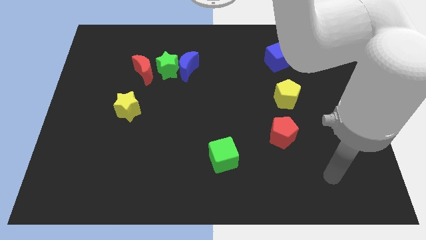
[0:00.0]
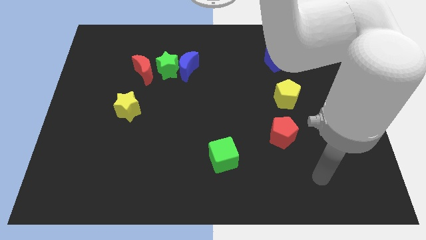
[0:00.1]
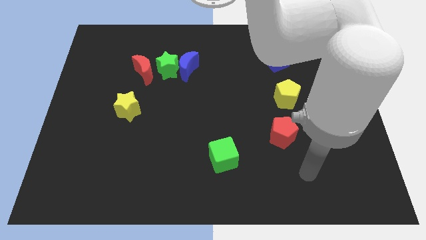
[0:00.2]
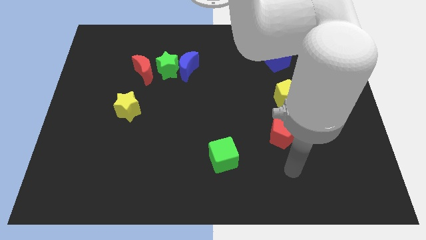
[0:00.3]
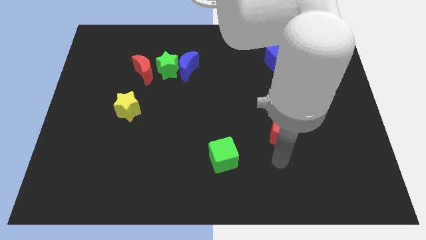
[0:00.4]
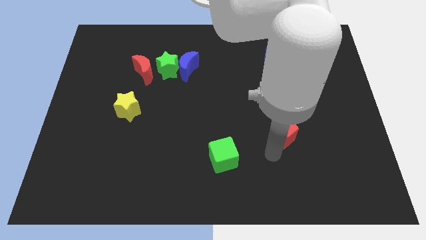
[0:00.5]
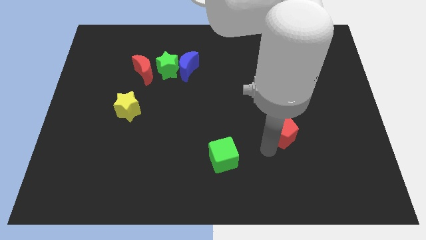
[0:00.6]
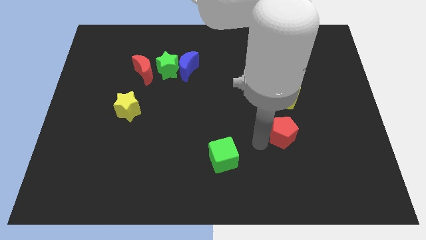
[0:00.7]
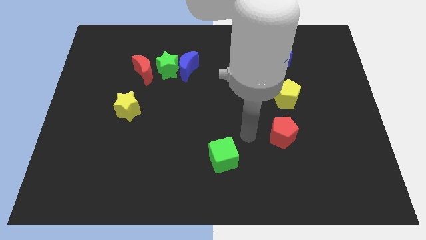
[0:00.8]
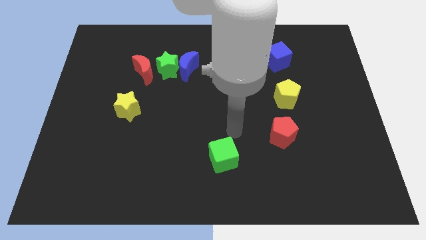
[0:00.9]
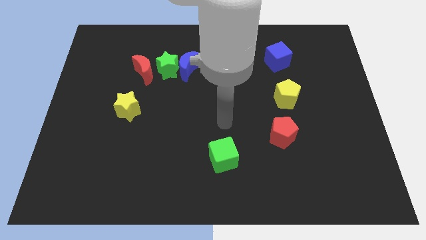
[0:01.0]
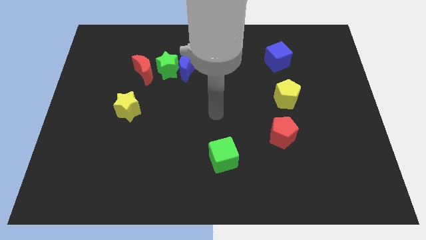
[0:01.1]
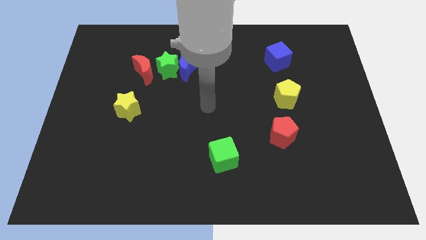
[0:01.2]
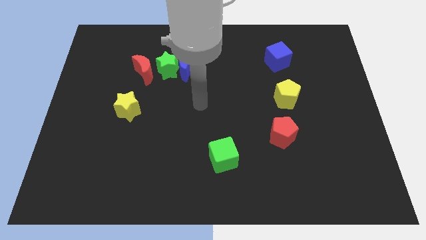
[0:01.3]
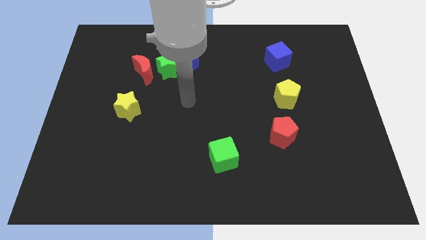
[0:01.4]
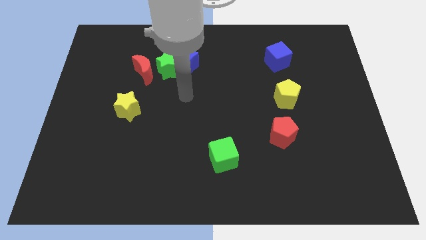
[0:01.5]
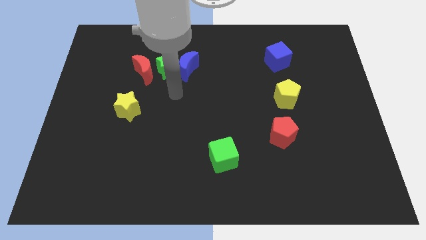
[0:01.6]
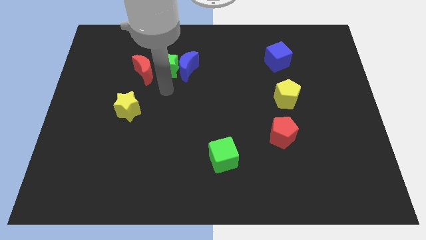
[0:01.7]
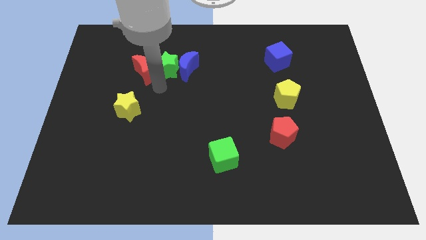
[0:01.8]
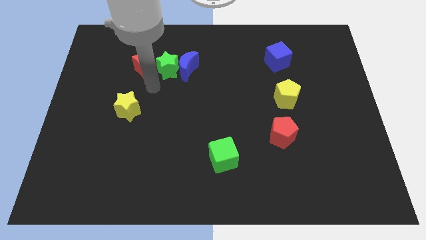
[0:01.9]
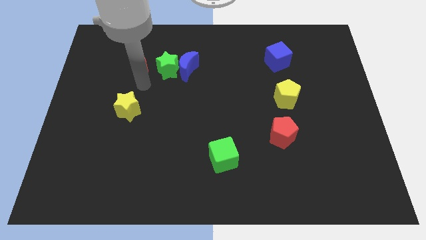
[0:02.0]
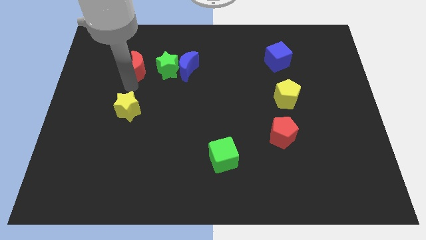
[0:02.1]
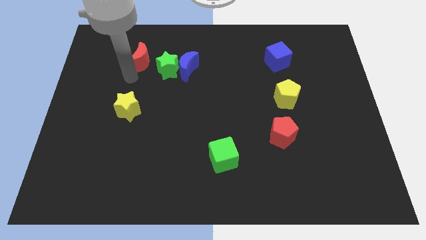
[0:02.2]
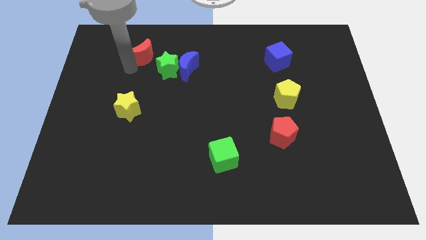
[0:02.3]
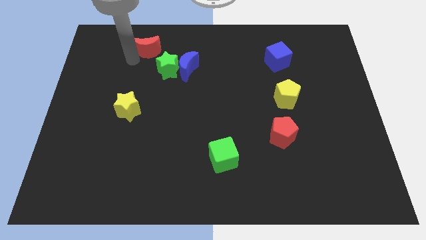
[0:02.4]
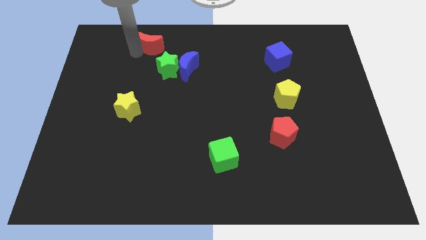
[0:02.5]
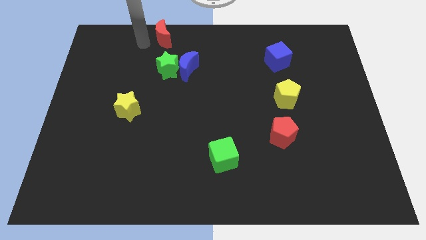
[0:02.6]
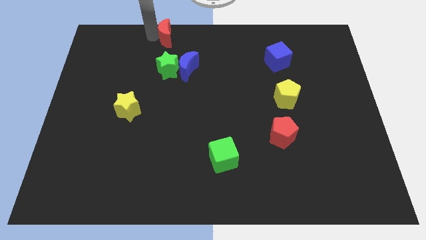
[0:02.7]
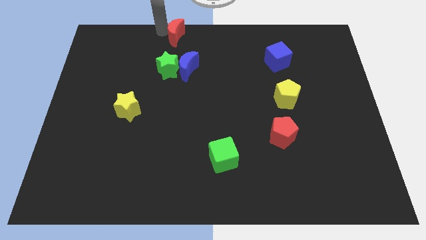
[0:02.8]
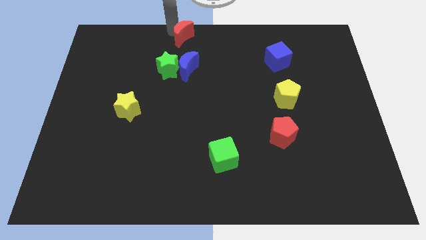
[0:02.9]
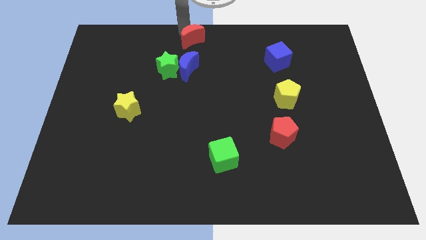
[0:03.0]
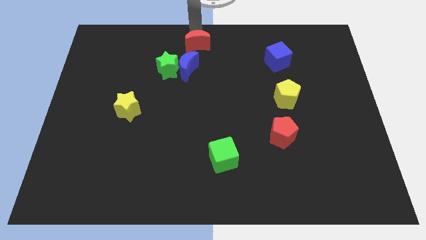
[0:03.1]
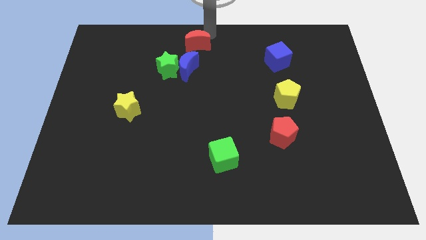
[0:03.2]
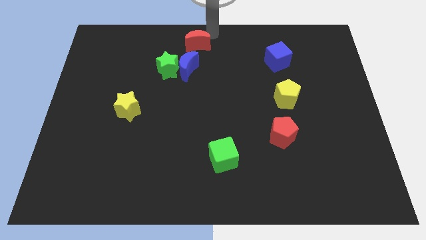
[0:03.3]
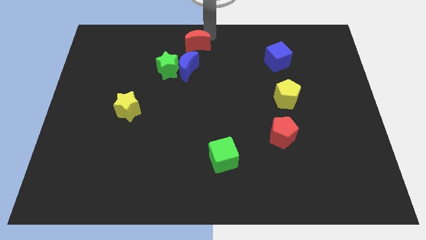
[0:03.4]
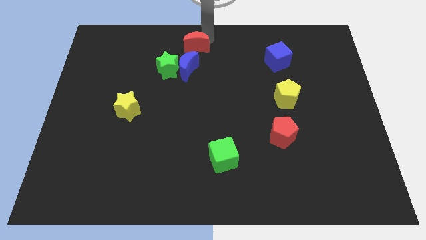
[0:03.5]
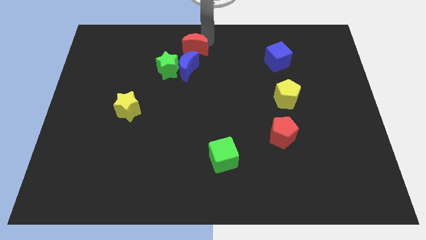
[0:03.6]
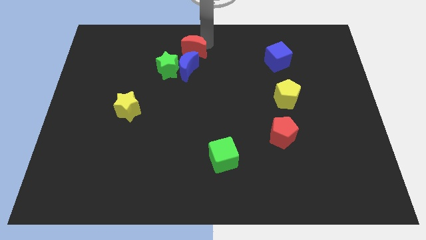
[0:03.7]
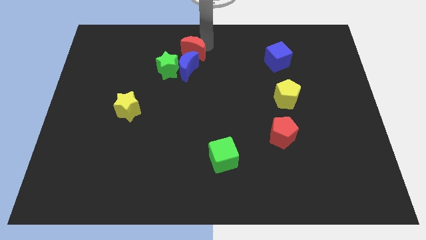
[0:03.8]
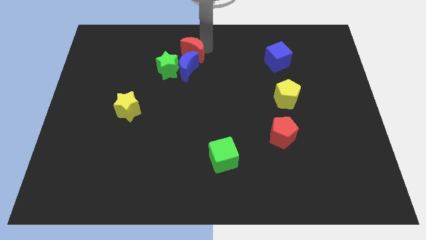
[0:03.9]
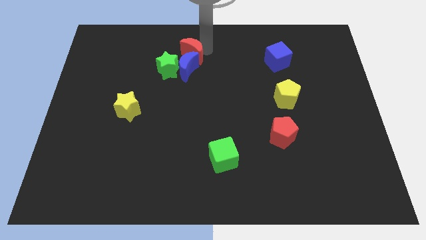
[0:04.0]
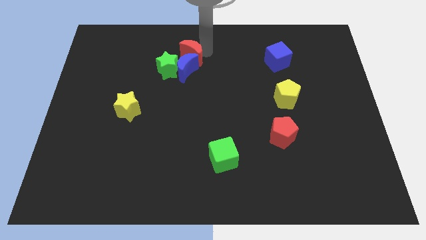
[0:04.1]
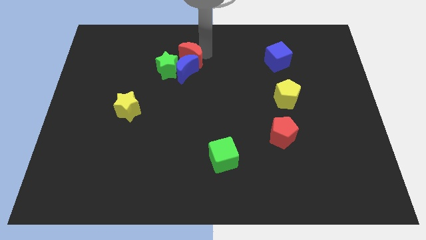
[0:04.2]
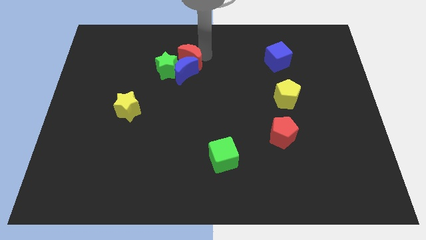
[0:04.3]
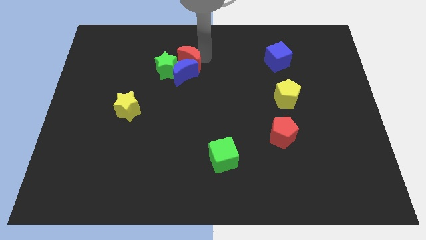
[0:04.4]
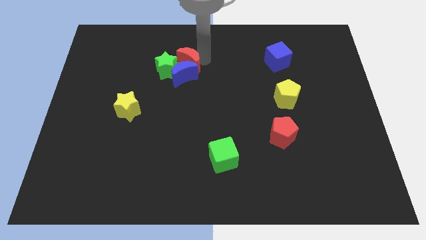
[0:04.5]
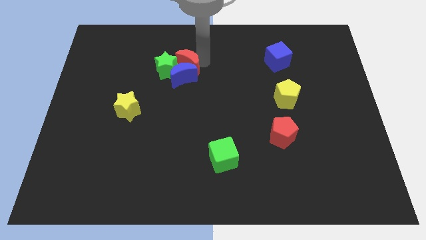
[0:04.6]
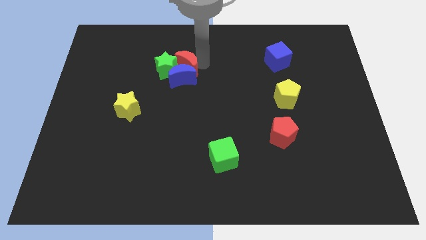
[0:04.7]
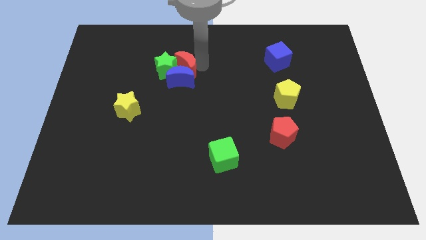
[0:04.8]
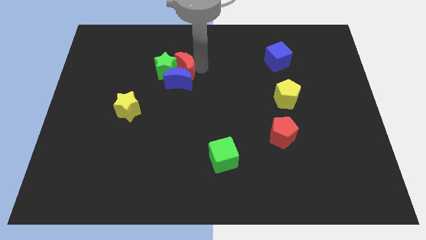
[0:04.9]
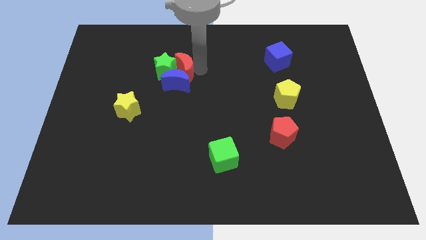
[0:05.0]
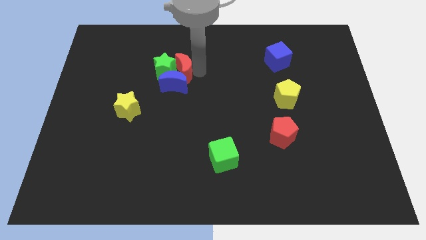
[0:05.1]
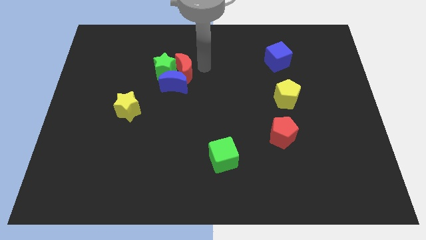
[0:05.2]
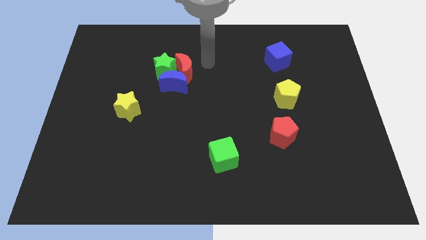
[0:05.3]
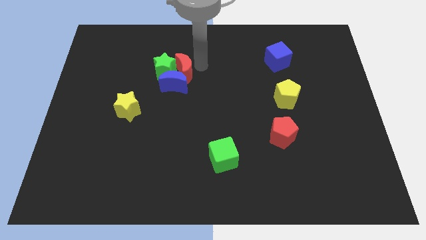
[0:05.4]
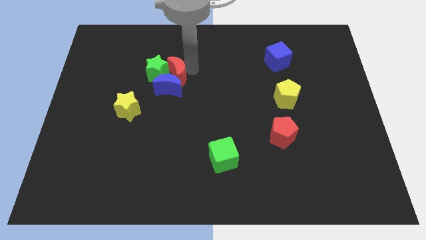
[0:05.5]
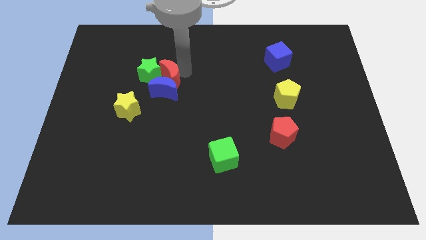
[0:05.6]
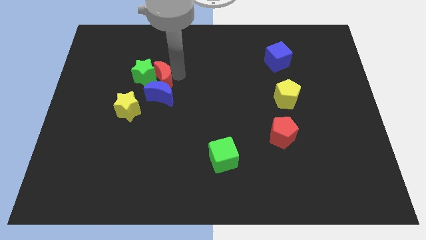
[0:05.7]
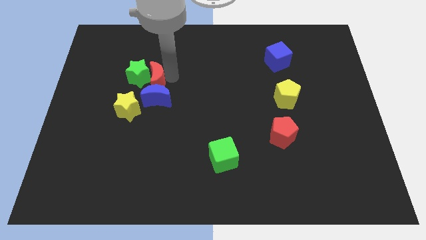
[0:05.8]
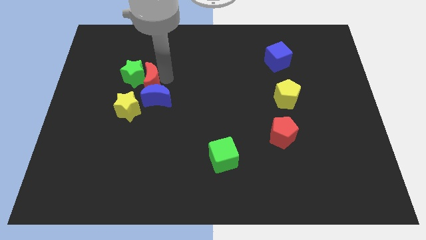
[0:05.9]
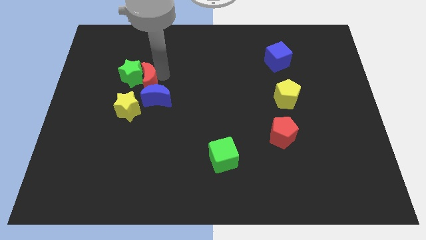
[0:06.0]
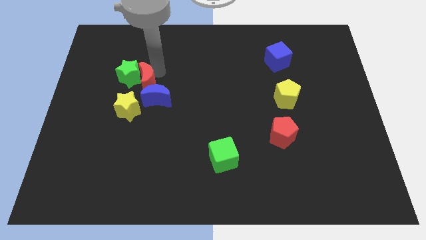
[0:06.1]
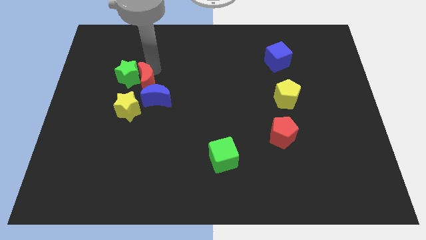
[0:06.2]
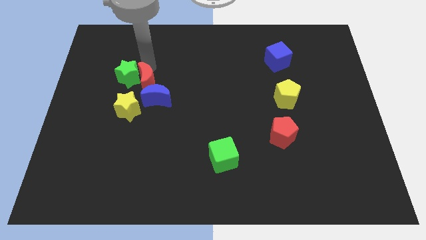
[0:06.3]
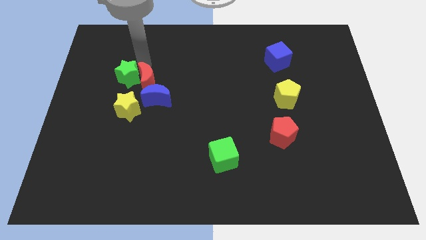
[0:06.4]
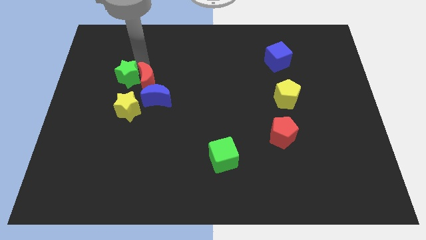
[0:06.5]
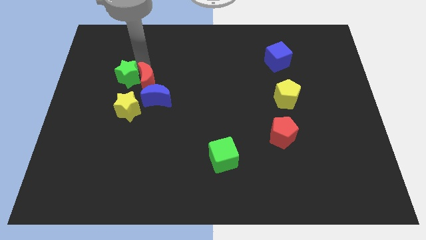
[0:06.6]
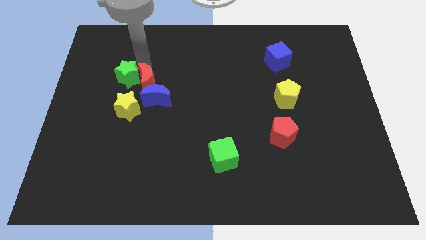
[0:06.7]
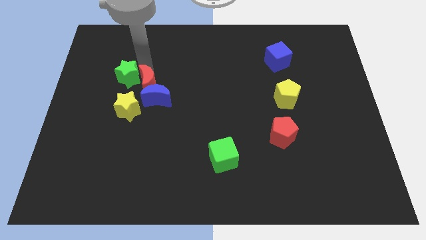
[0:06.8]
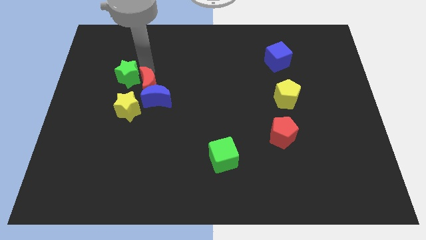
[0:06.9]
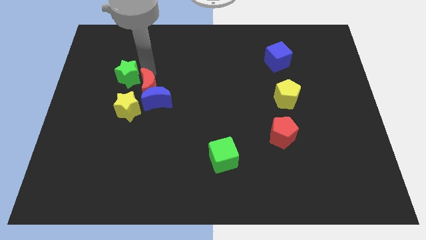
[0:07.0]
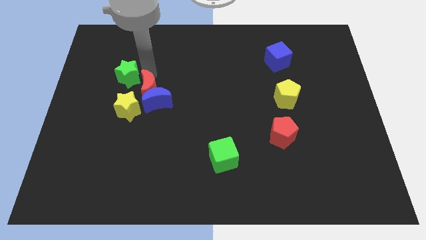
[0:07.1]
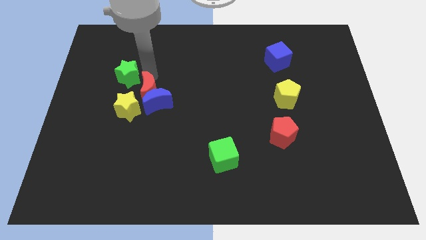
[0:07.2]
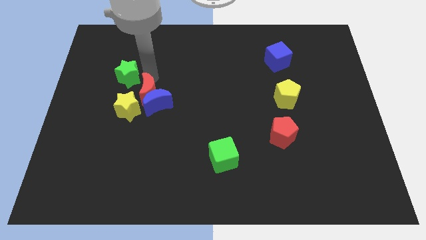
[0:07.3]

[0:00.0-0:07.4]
slide the red moon down slightly

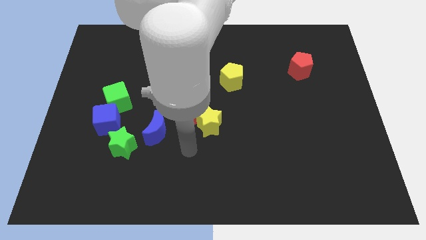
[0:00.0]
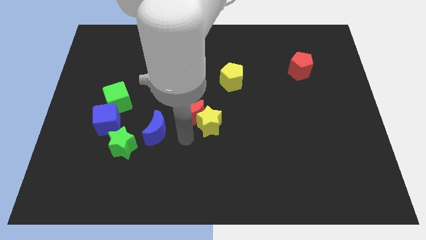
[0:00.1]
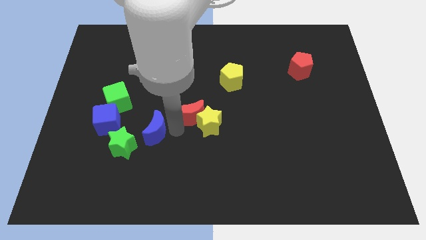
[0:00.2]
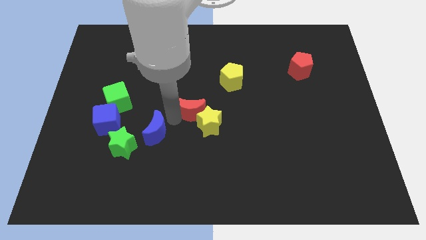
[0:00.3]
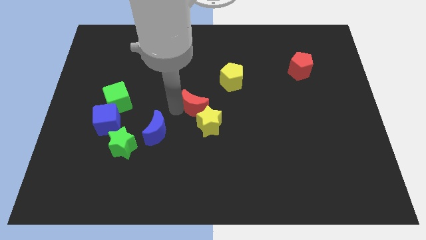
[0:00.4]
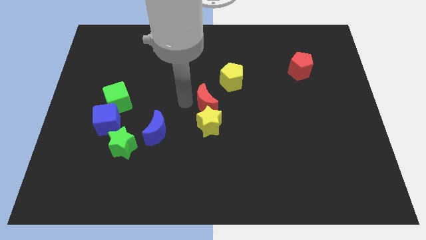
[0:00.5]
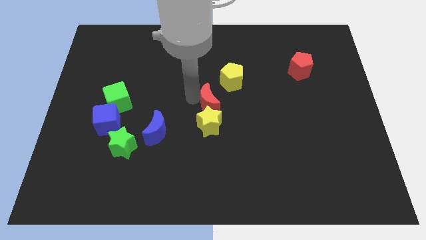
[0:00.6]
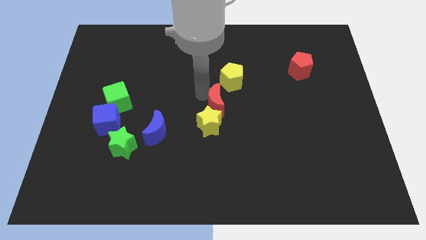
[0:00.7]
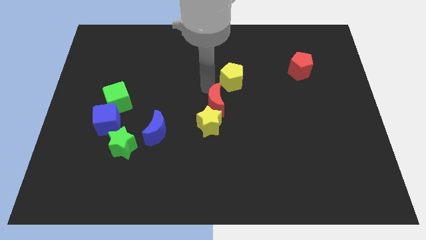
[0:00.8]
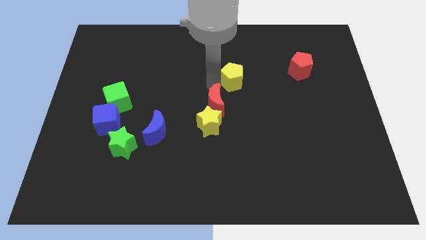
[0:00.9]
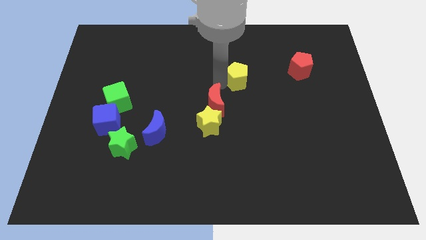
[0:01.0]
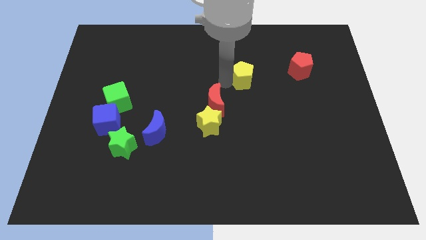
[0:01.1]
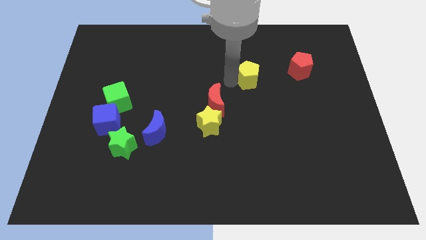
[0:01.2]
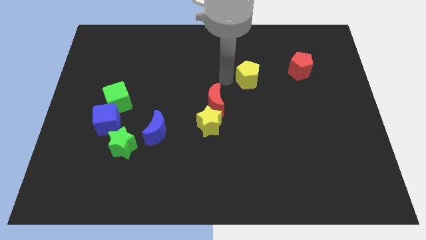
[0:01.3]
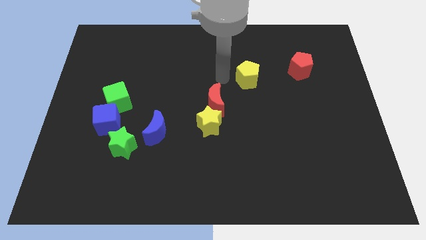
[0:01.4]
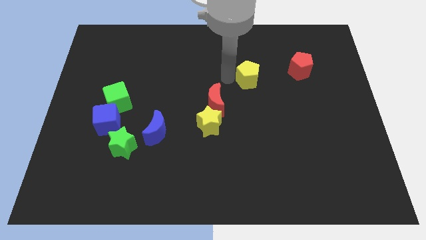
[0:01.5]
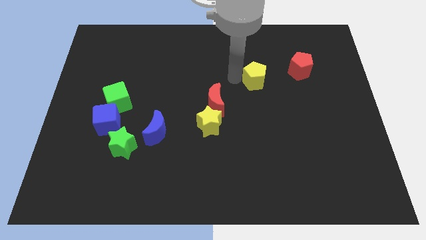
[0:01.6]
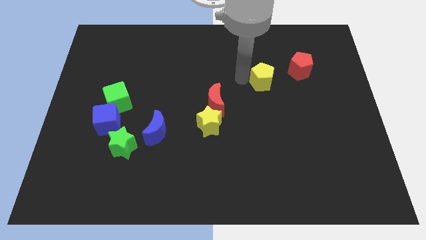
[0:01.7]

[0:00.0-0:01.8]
push the yellow pentagon a bit to the right
